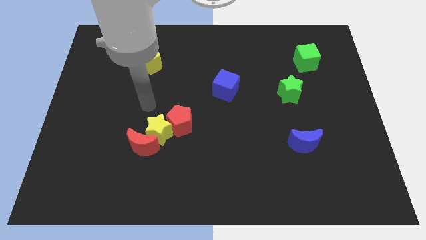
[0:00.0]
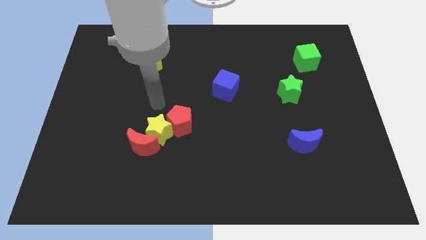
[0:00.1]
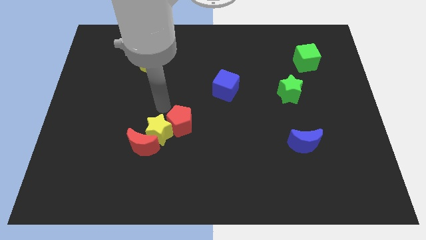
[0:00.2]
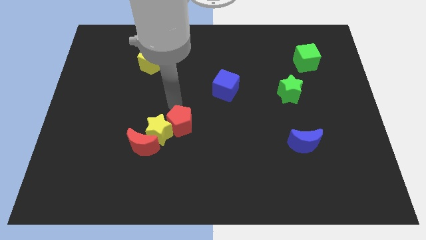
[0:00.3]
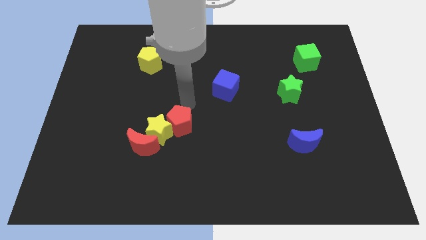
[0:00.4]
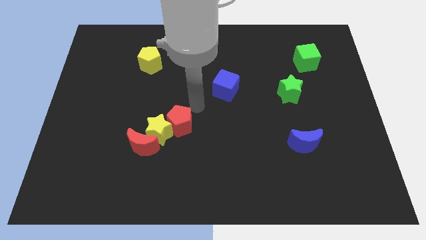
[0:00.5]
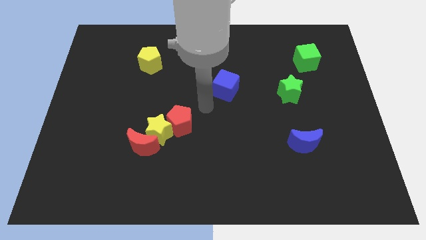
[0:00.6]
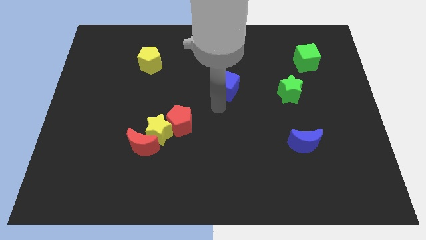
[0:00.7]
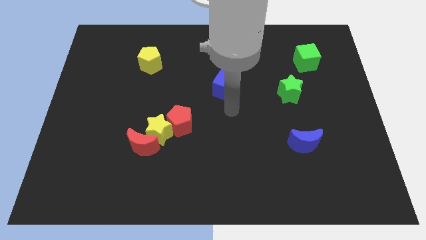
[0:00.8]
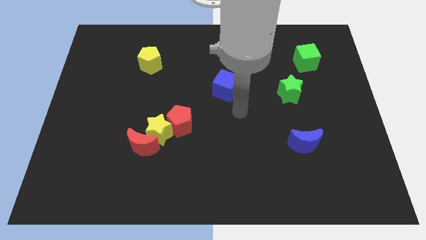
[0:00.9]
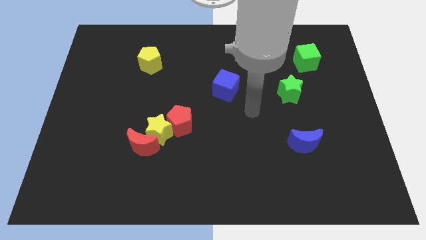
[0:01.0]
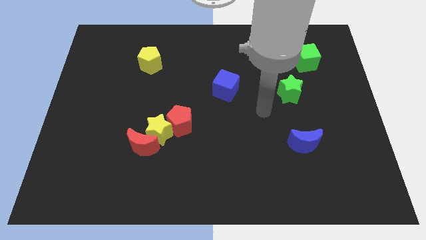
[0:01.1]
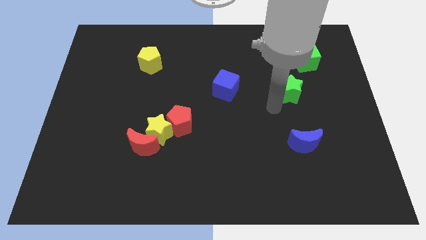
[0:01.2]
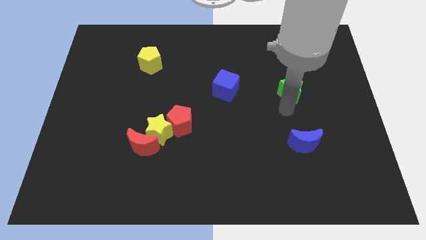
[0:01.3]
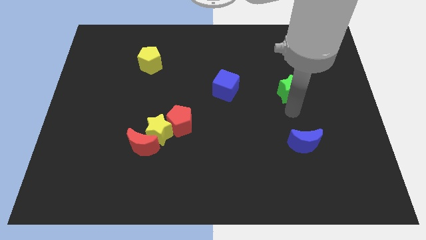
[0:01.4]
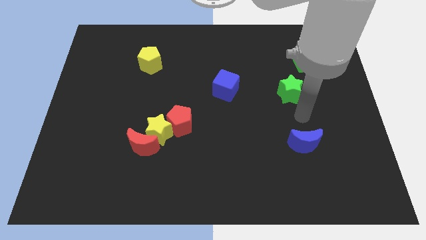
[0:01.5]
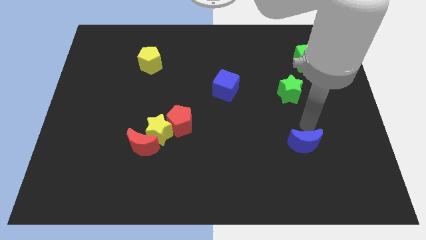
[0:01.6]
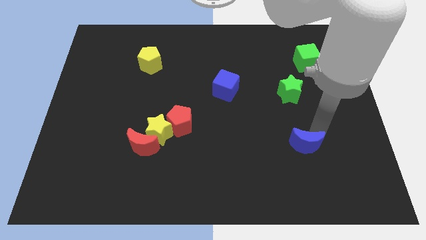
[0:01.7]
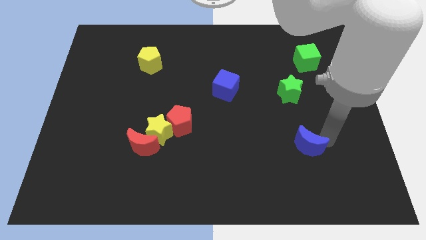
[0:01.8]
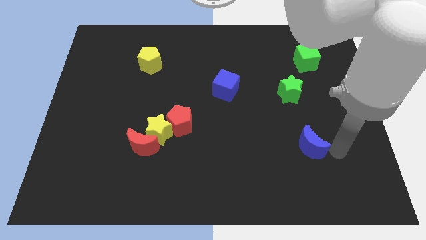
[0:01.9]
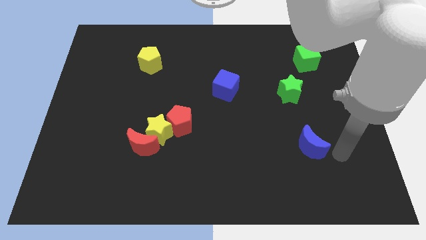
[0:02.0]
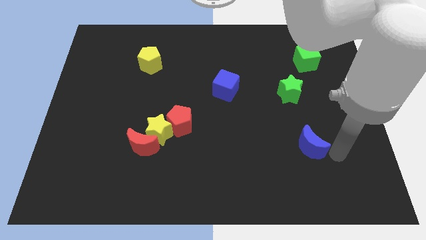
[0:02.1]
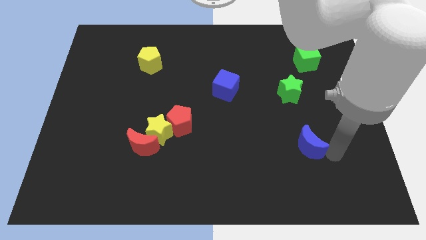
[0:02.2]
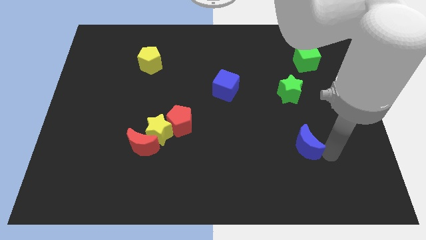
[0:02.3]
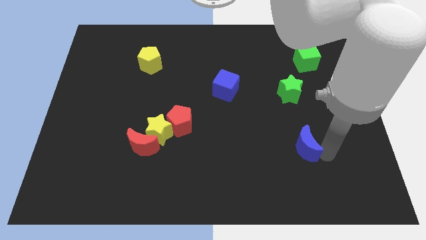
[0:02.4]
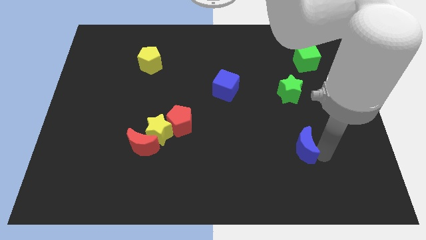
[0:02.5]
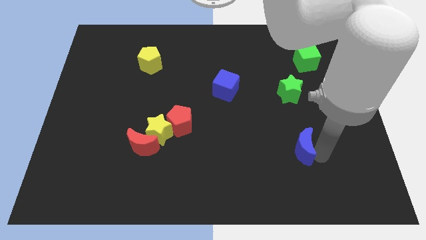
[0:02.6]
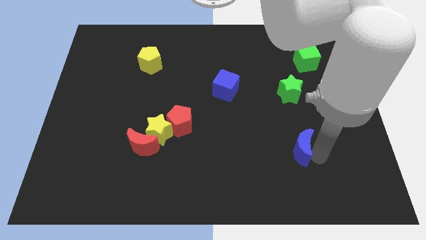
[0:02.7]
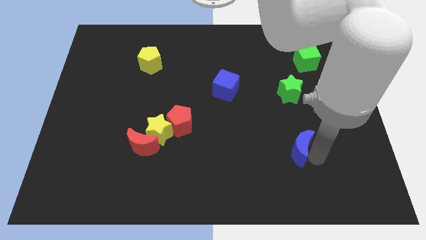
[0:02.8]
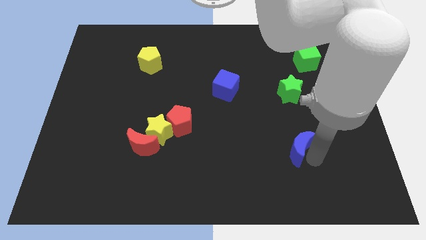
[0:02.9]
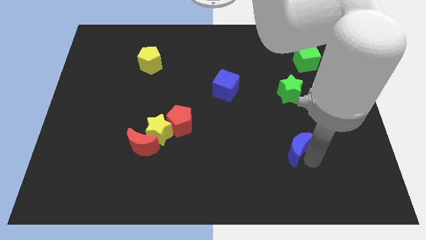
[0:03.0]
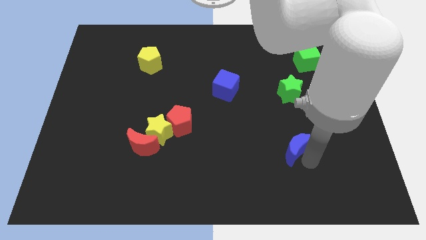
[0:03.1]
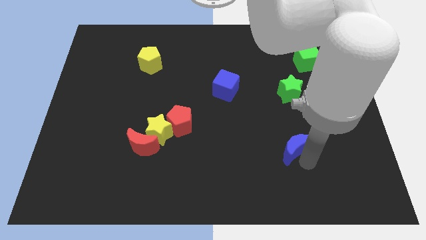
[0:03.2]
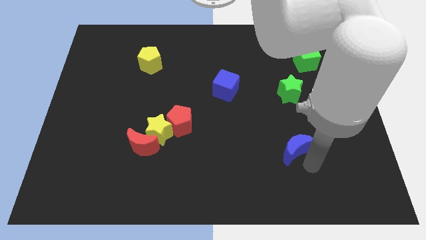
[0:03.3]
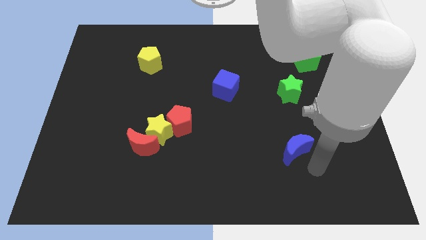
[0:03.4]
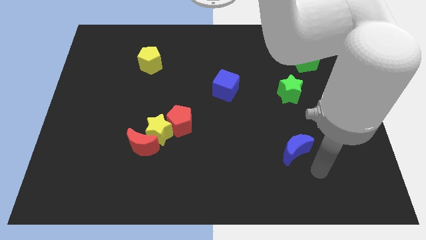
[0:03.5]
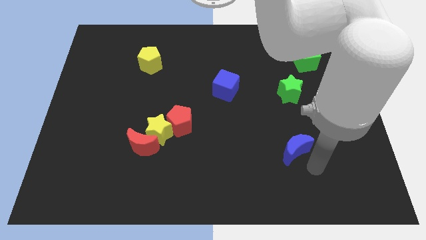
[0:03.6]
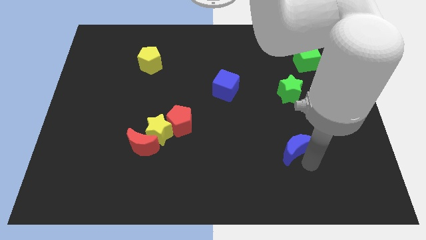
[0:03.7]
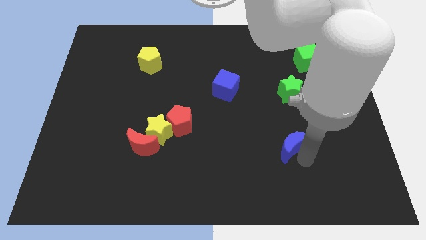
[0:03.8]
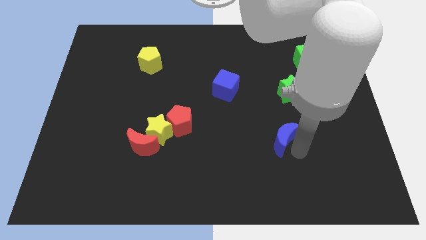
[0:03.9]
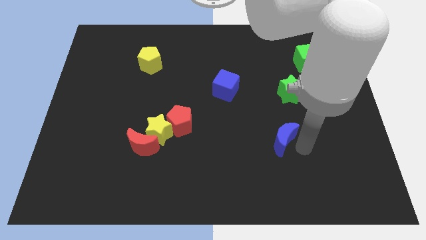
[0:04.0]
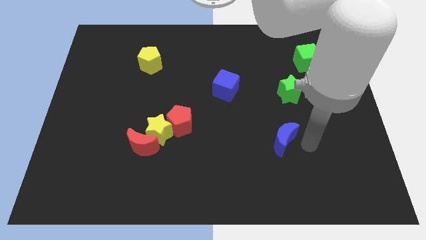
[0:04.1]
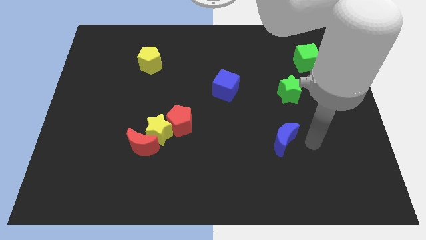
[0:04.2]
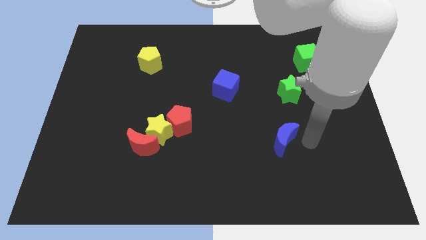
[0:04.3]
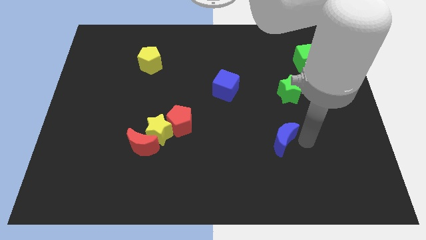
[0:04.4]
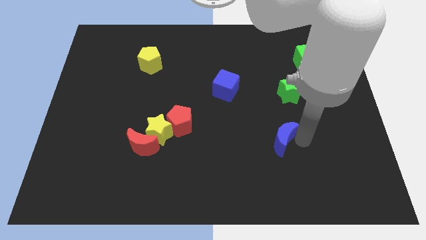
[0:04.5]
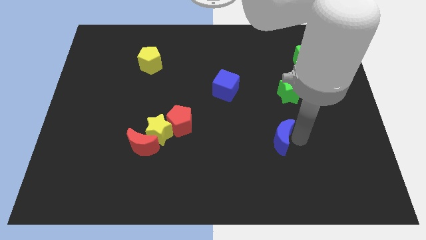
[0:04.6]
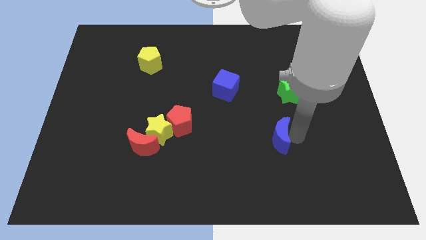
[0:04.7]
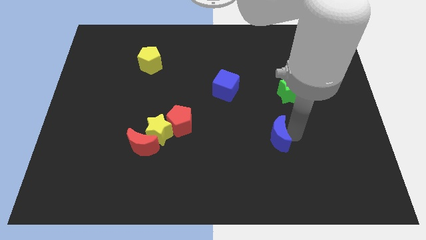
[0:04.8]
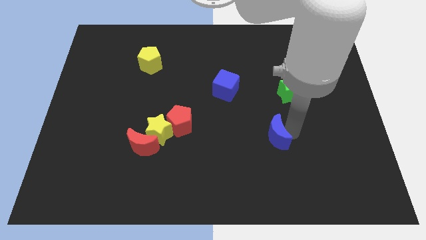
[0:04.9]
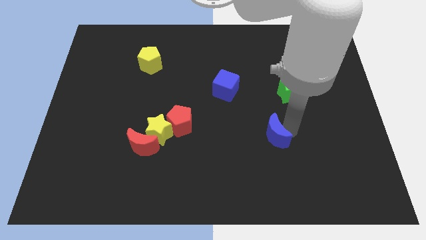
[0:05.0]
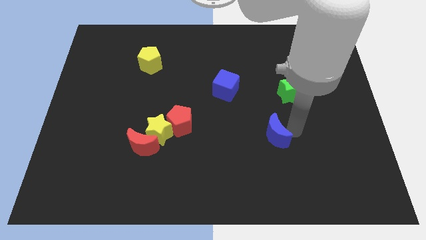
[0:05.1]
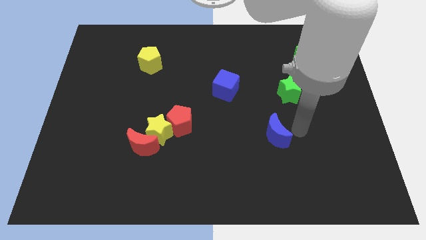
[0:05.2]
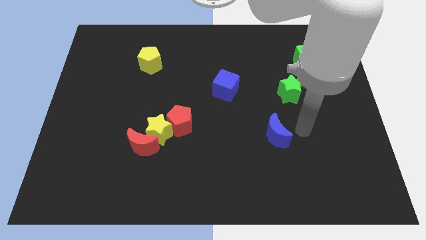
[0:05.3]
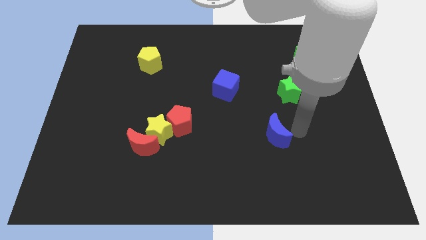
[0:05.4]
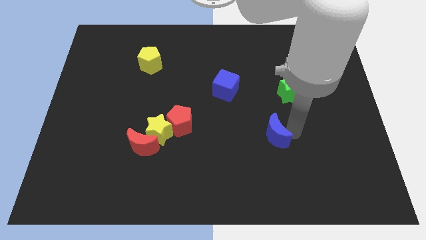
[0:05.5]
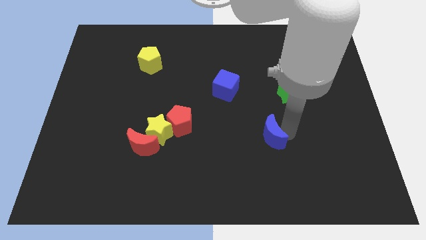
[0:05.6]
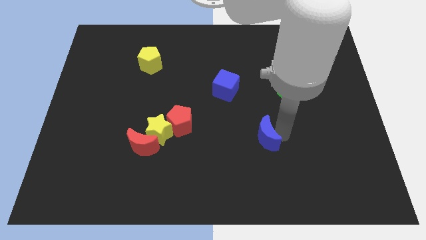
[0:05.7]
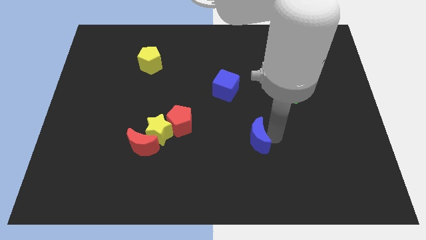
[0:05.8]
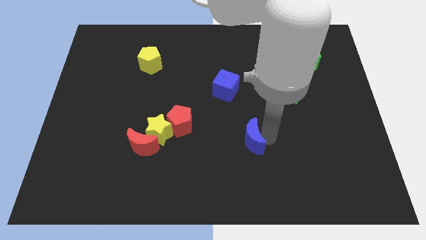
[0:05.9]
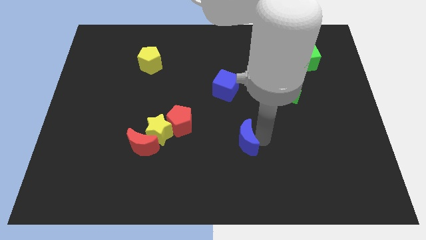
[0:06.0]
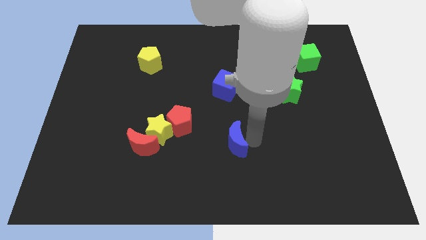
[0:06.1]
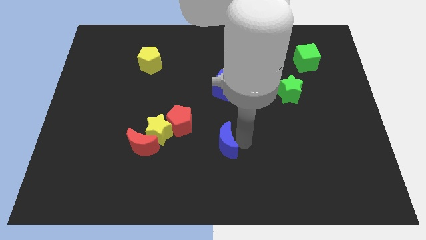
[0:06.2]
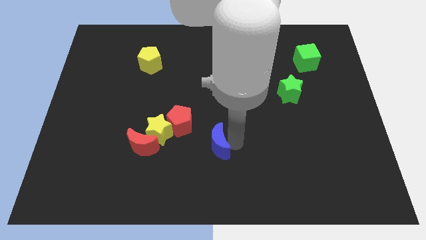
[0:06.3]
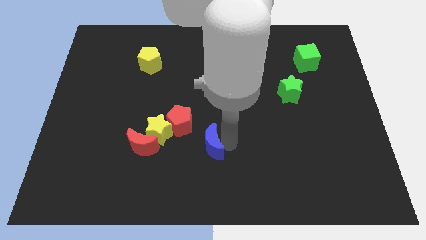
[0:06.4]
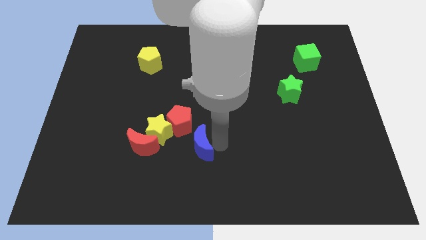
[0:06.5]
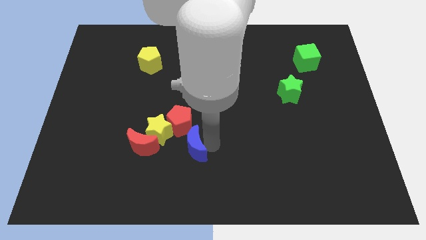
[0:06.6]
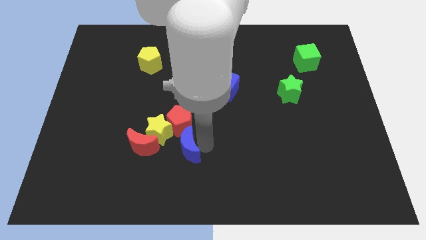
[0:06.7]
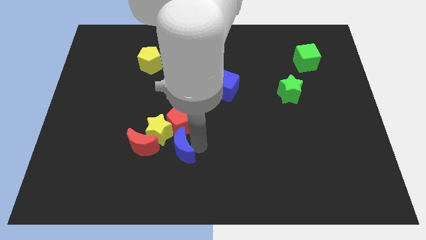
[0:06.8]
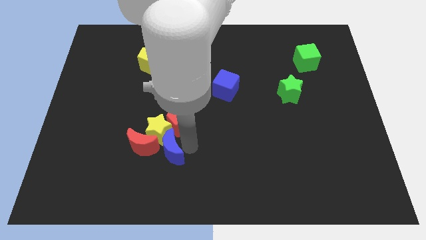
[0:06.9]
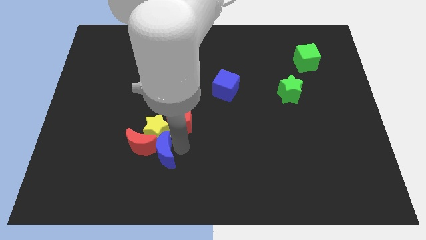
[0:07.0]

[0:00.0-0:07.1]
slide the blue moon to the red moon
